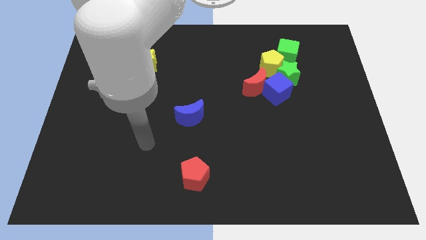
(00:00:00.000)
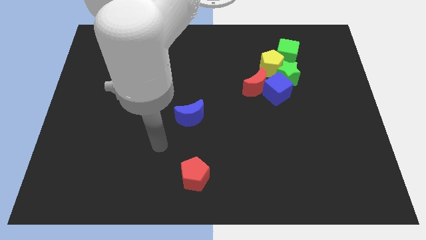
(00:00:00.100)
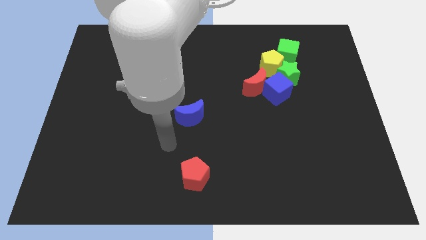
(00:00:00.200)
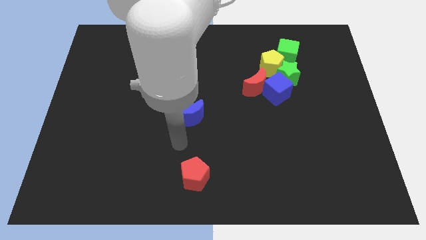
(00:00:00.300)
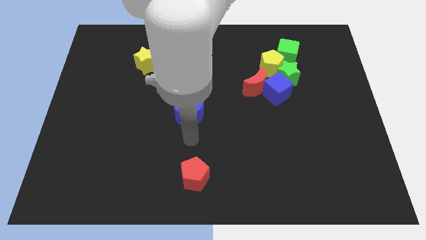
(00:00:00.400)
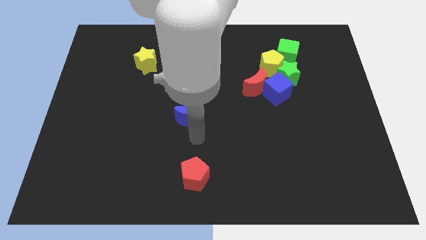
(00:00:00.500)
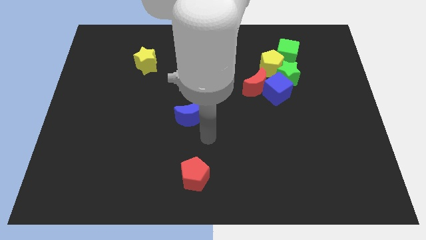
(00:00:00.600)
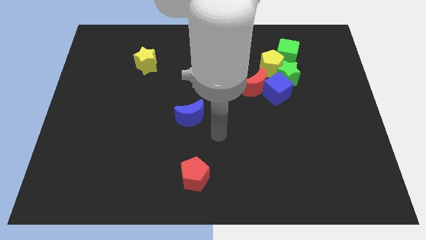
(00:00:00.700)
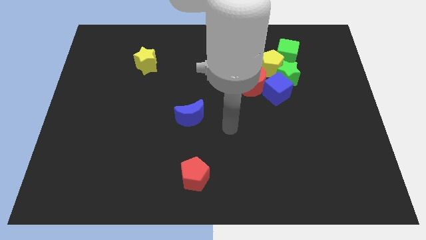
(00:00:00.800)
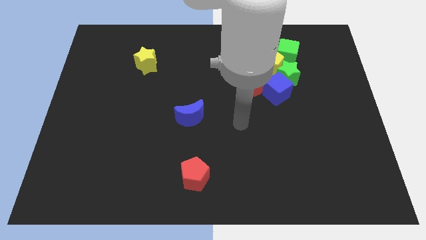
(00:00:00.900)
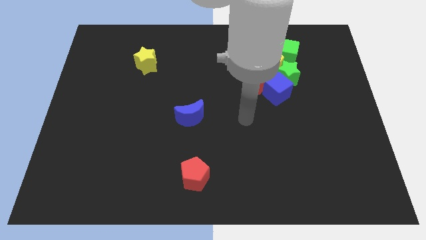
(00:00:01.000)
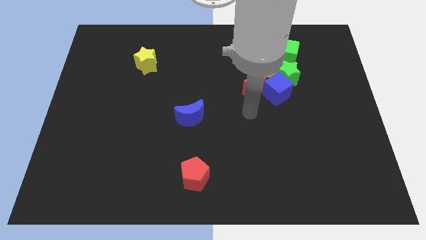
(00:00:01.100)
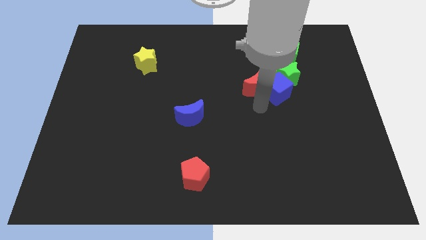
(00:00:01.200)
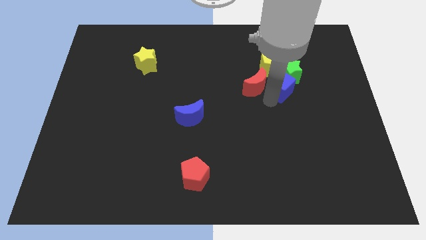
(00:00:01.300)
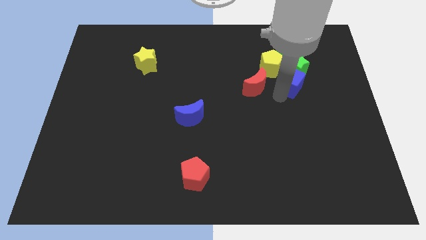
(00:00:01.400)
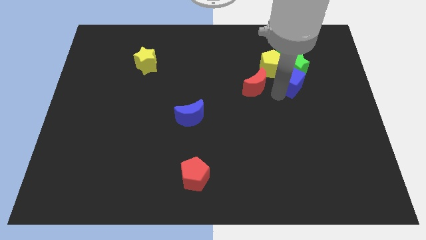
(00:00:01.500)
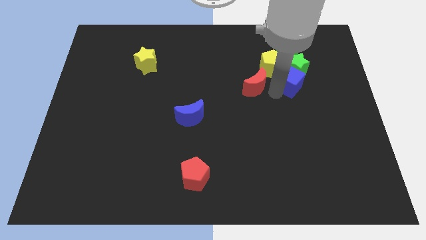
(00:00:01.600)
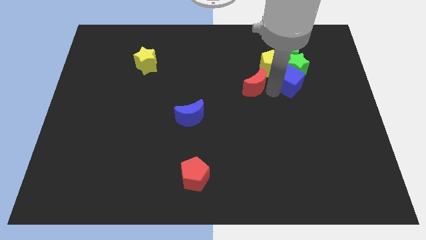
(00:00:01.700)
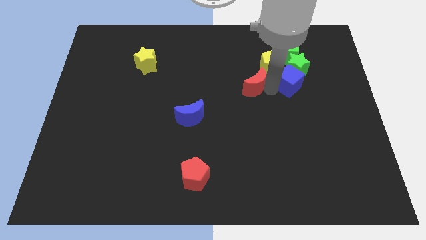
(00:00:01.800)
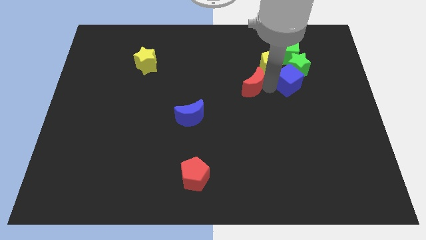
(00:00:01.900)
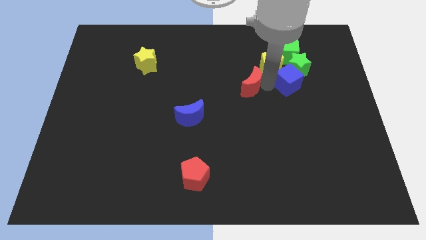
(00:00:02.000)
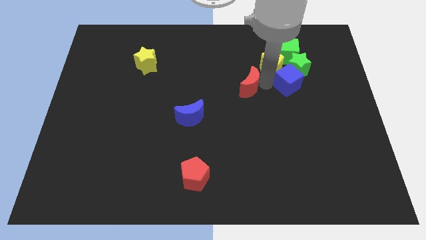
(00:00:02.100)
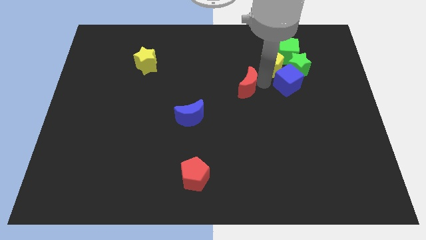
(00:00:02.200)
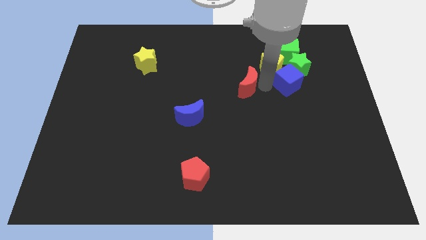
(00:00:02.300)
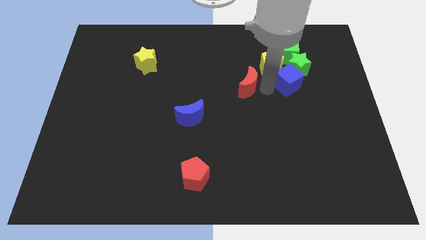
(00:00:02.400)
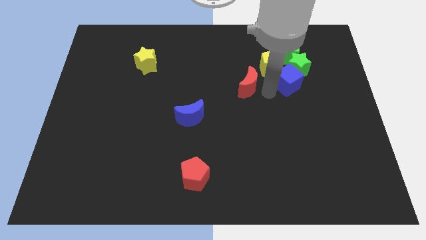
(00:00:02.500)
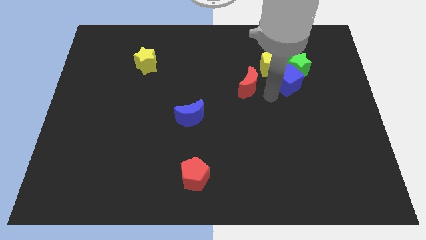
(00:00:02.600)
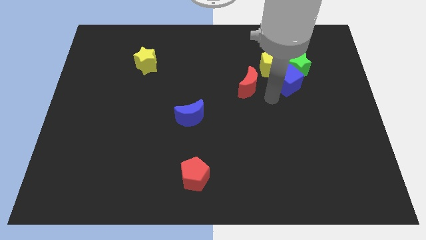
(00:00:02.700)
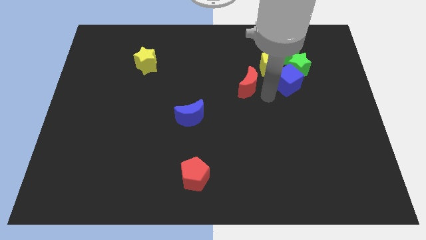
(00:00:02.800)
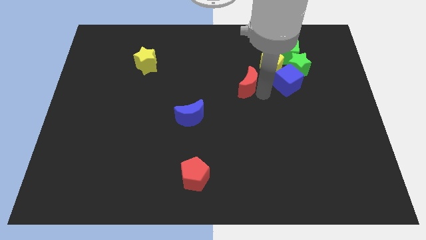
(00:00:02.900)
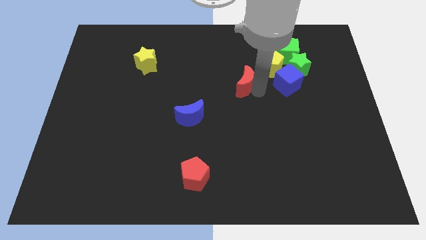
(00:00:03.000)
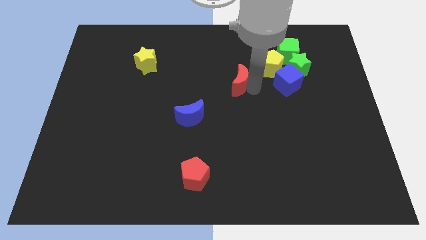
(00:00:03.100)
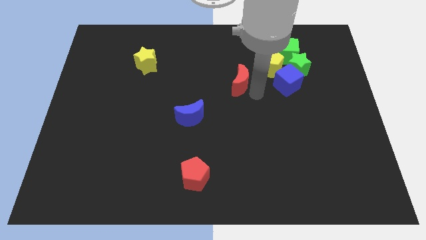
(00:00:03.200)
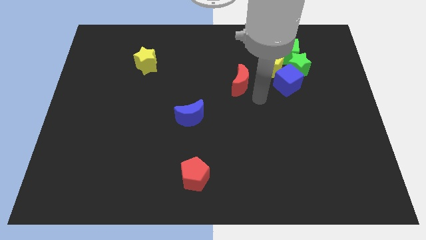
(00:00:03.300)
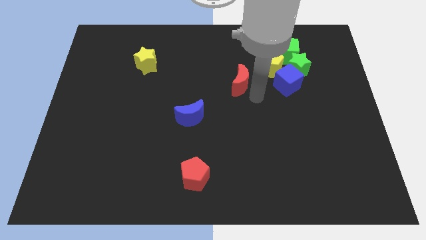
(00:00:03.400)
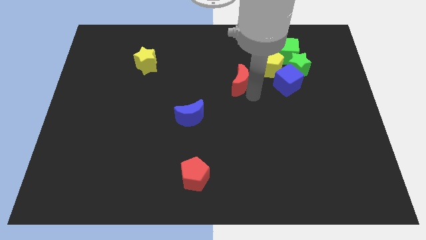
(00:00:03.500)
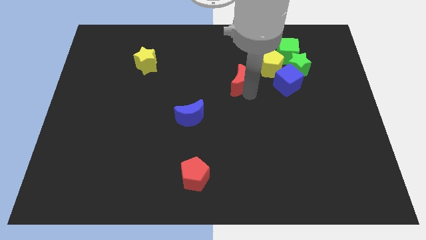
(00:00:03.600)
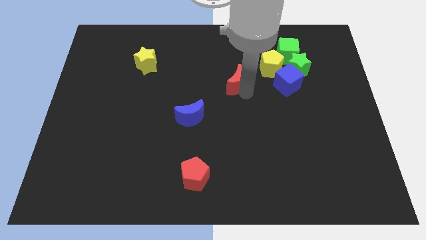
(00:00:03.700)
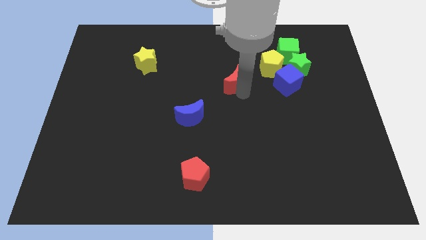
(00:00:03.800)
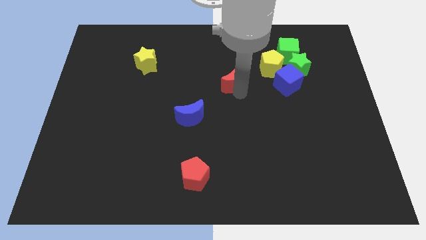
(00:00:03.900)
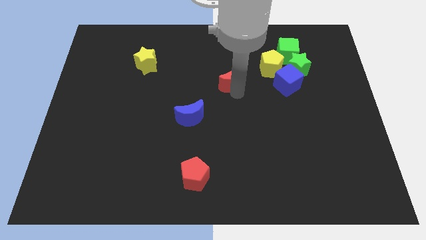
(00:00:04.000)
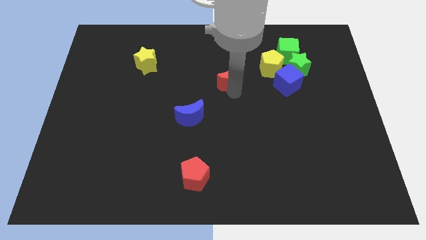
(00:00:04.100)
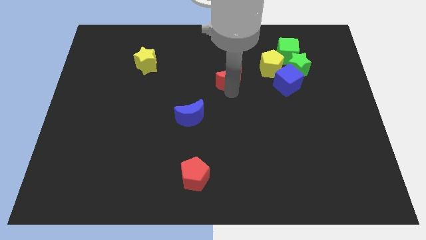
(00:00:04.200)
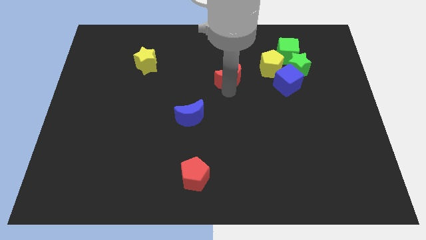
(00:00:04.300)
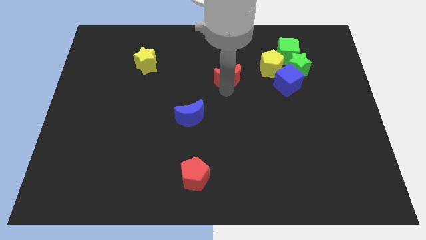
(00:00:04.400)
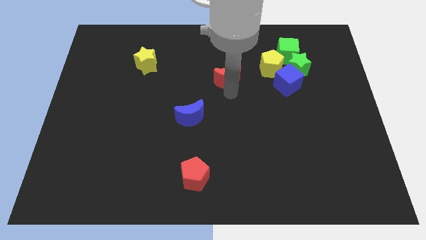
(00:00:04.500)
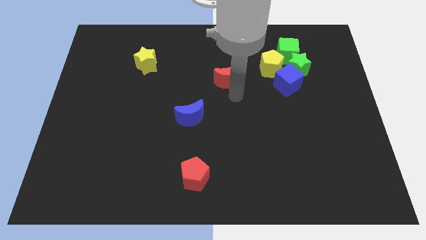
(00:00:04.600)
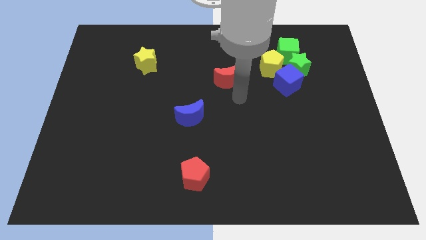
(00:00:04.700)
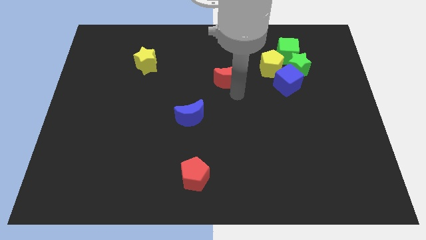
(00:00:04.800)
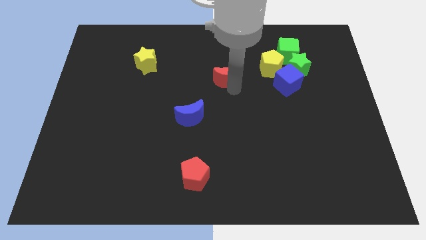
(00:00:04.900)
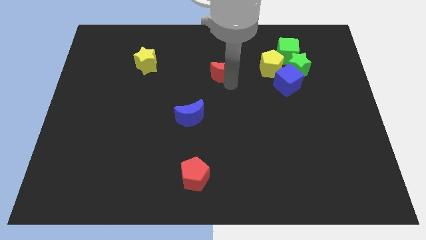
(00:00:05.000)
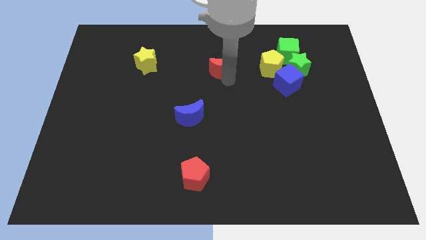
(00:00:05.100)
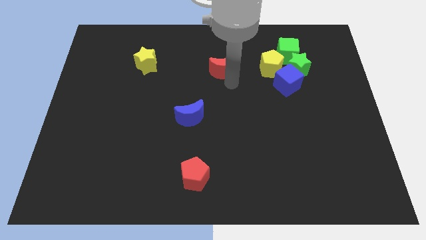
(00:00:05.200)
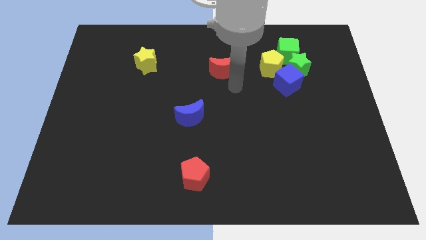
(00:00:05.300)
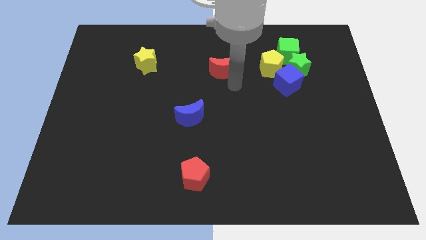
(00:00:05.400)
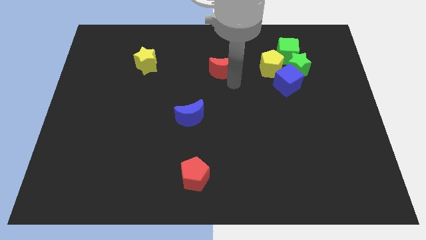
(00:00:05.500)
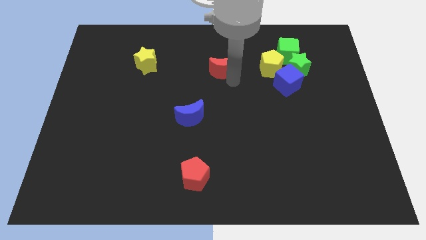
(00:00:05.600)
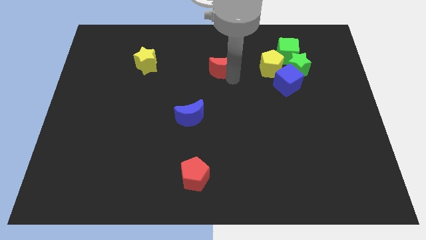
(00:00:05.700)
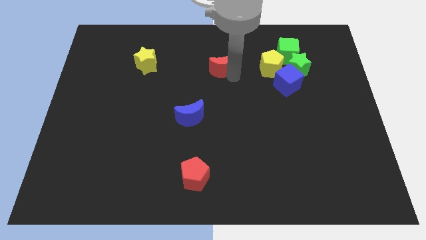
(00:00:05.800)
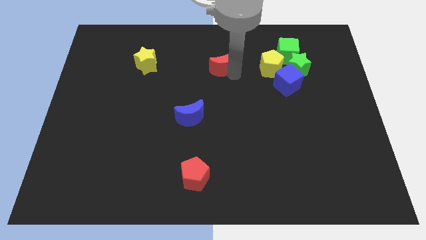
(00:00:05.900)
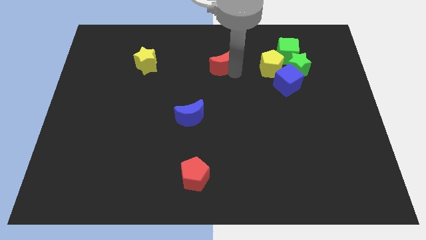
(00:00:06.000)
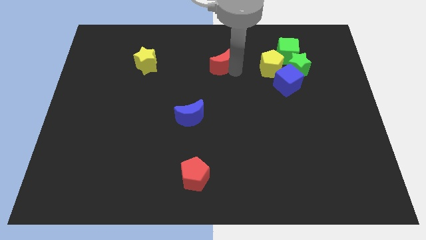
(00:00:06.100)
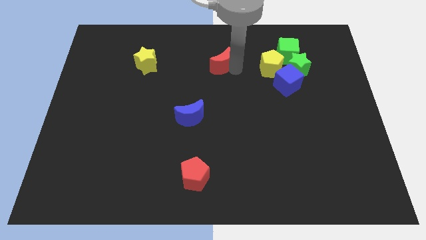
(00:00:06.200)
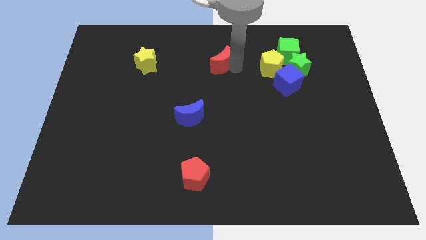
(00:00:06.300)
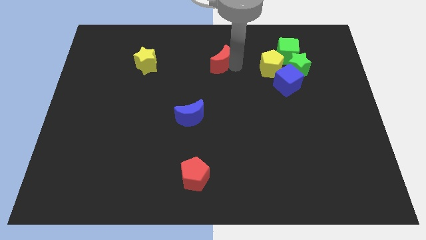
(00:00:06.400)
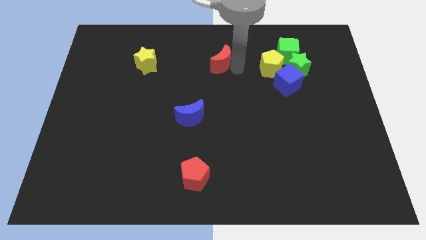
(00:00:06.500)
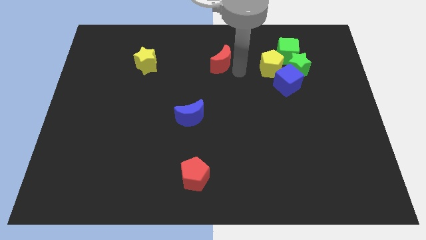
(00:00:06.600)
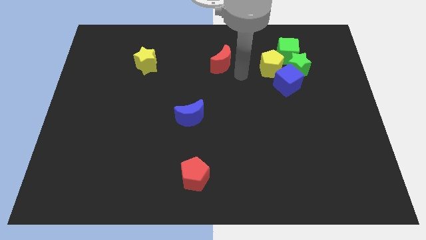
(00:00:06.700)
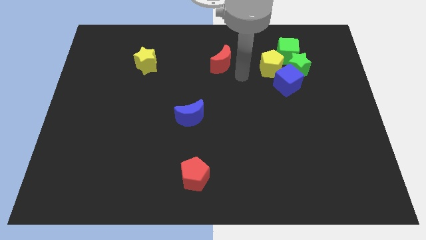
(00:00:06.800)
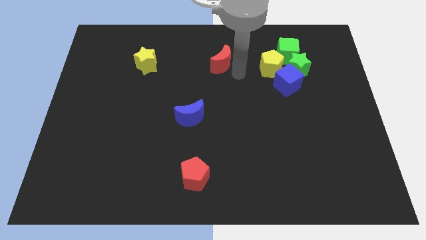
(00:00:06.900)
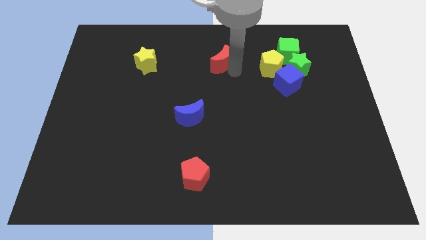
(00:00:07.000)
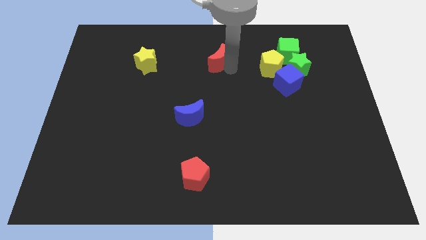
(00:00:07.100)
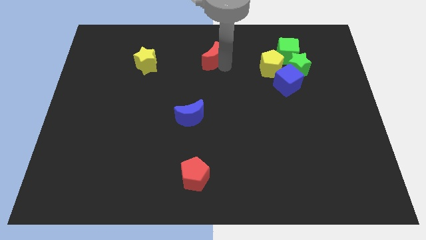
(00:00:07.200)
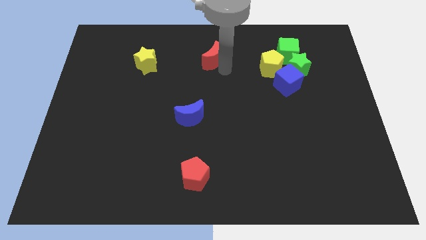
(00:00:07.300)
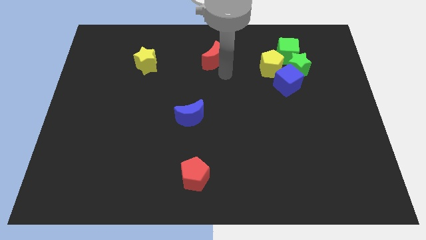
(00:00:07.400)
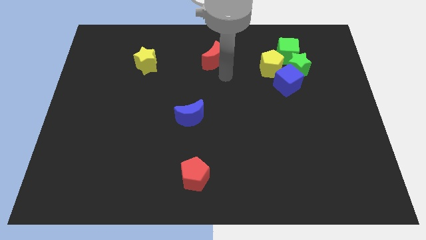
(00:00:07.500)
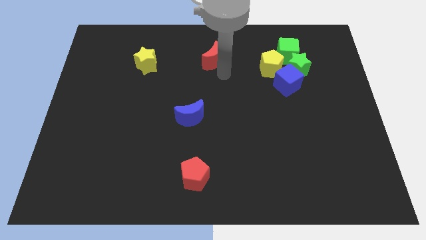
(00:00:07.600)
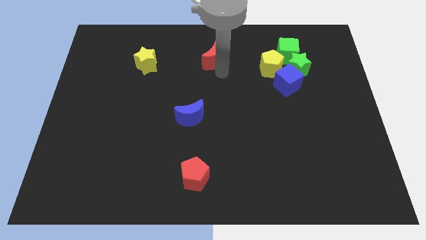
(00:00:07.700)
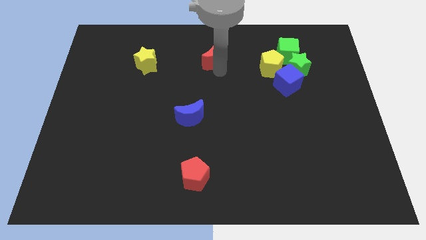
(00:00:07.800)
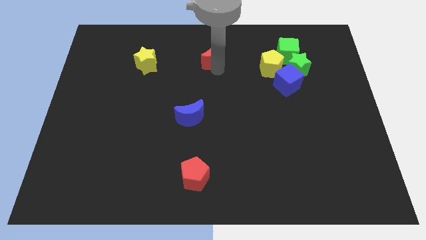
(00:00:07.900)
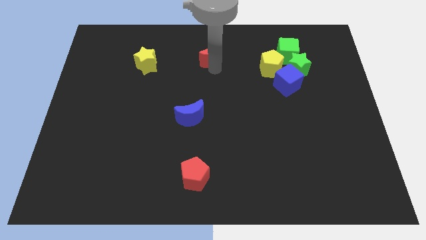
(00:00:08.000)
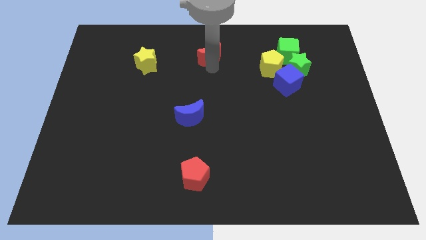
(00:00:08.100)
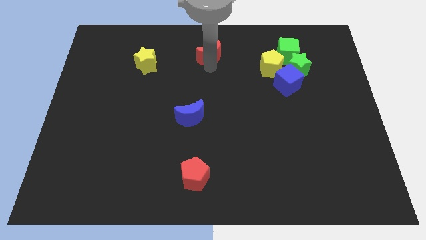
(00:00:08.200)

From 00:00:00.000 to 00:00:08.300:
put the red moon to the towards your base
